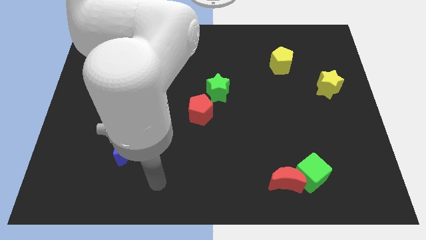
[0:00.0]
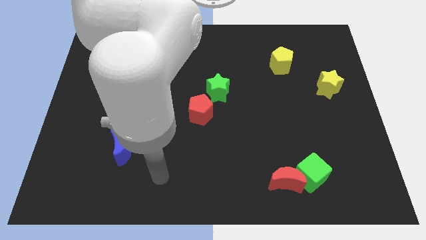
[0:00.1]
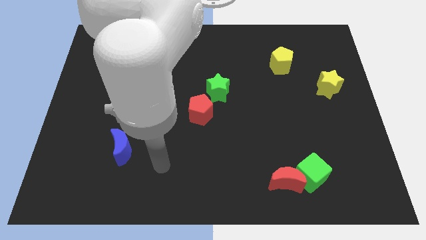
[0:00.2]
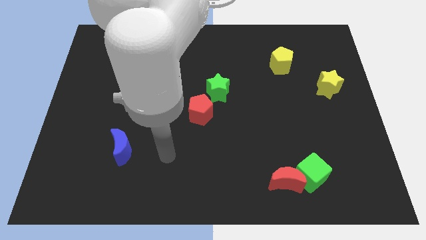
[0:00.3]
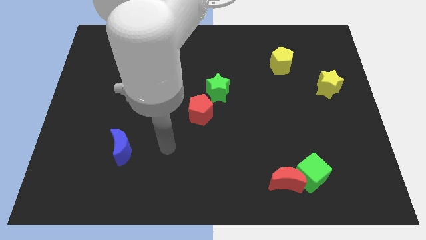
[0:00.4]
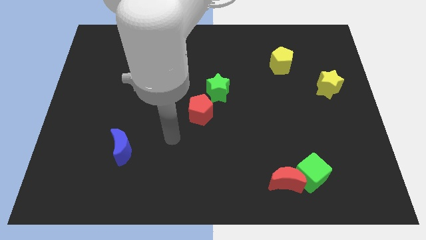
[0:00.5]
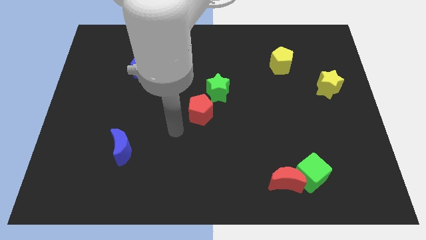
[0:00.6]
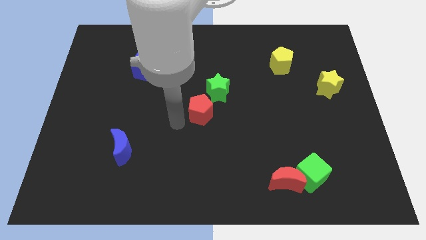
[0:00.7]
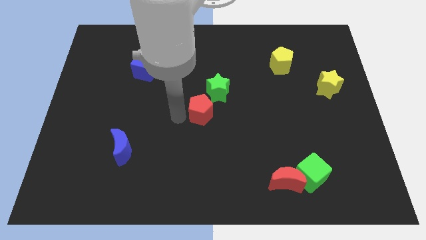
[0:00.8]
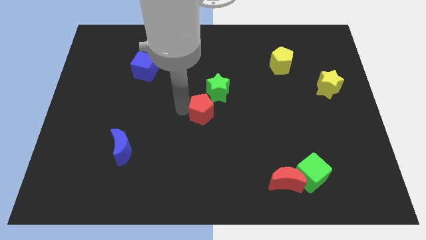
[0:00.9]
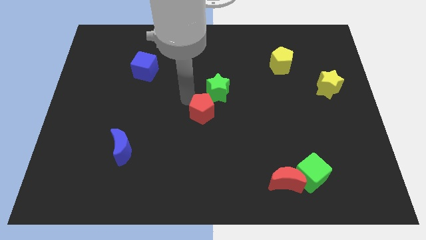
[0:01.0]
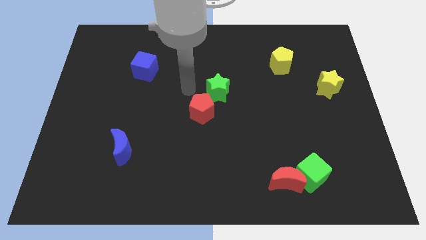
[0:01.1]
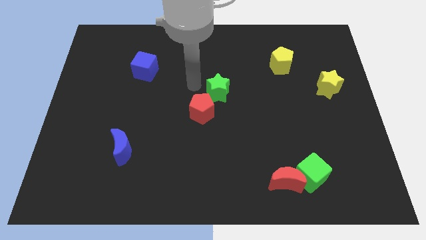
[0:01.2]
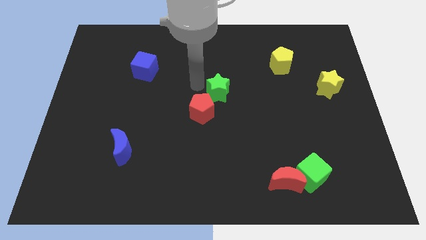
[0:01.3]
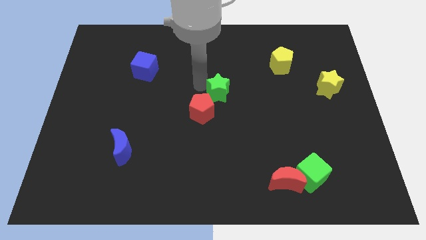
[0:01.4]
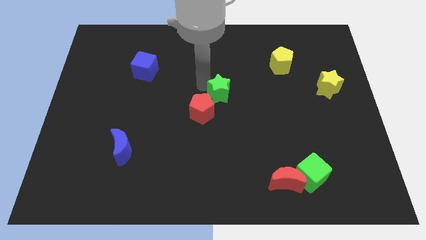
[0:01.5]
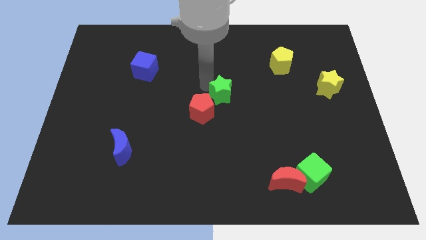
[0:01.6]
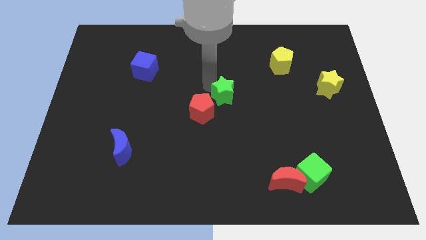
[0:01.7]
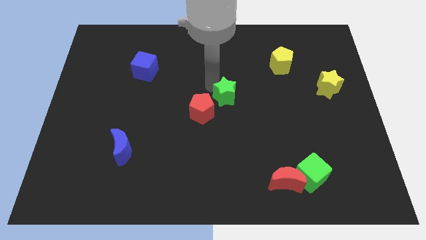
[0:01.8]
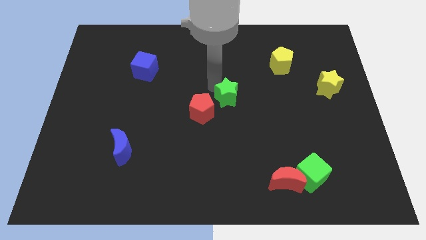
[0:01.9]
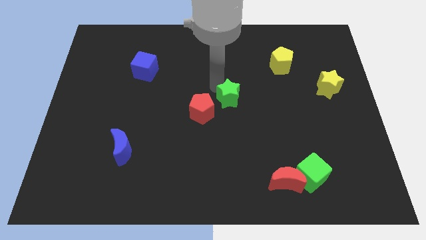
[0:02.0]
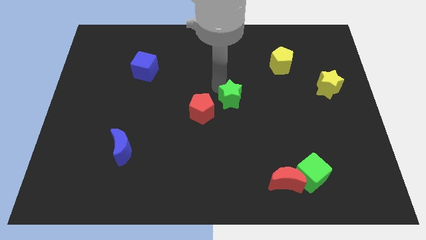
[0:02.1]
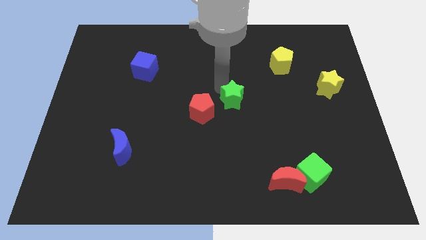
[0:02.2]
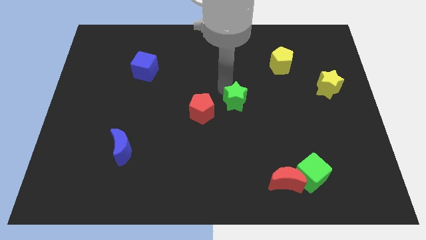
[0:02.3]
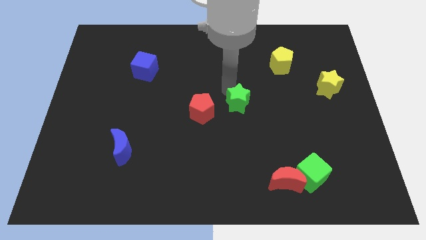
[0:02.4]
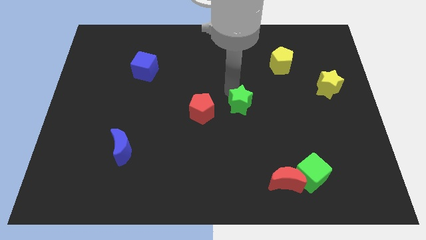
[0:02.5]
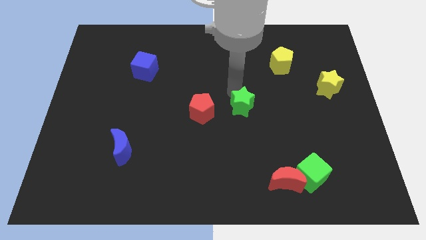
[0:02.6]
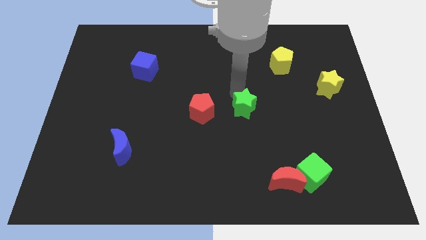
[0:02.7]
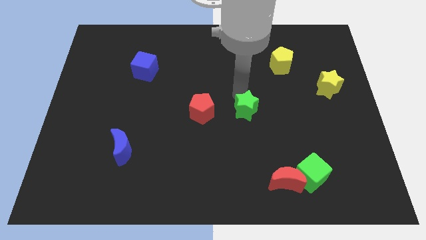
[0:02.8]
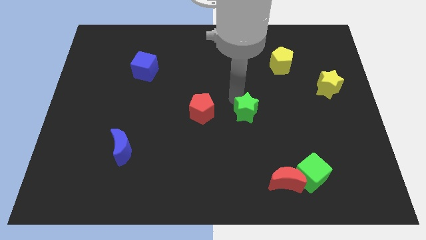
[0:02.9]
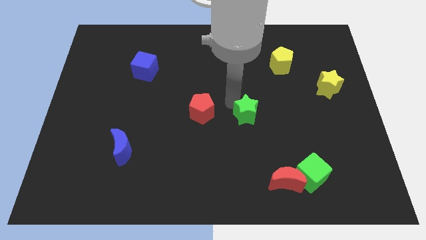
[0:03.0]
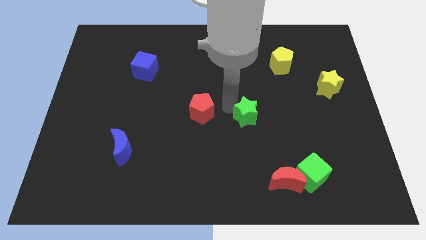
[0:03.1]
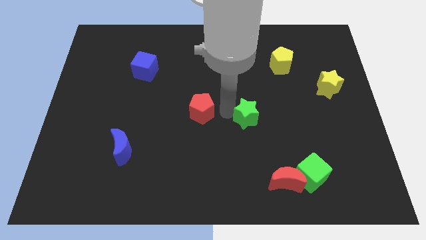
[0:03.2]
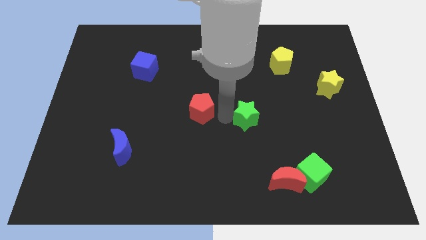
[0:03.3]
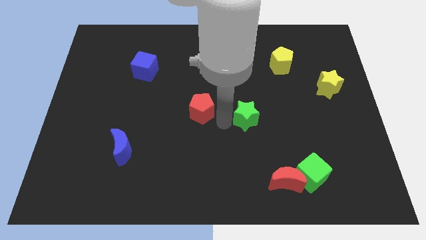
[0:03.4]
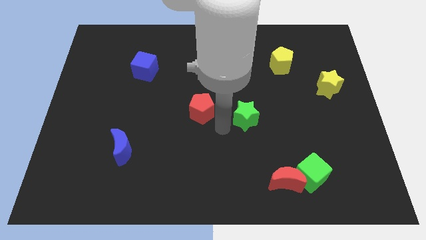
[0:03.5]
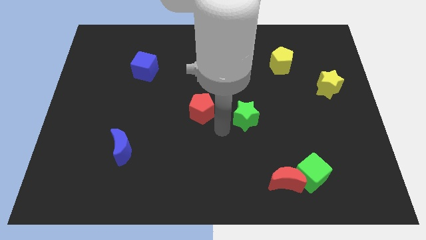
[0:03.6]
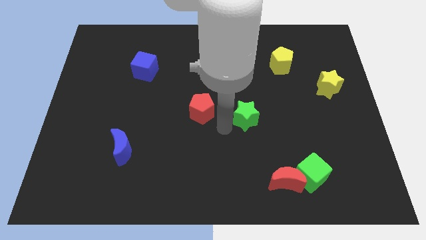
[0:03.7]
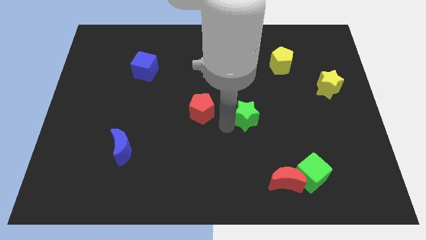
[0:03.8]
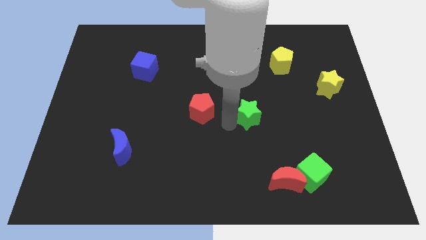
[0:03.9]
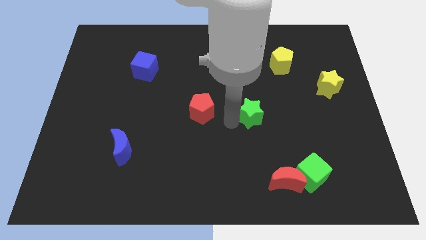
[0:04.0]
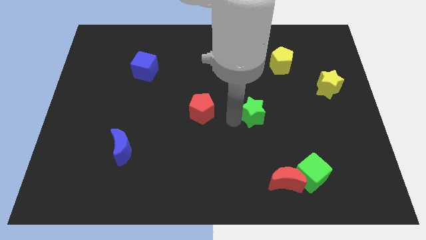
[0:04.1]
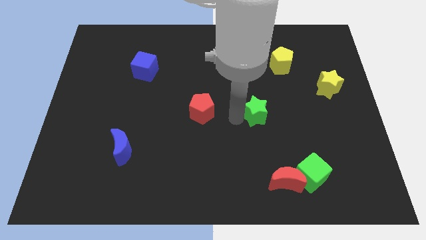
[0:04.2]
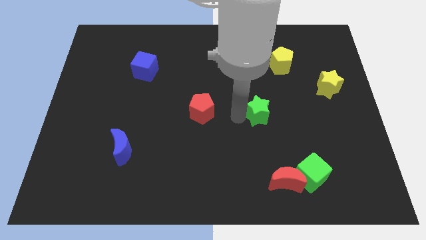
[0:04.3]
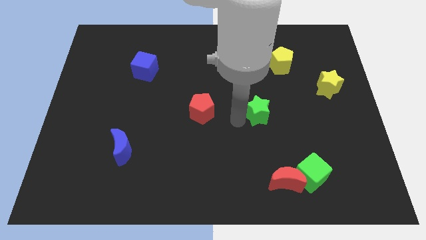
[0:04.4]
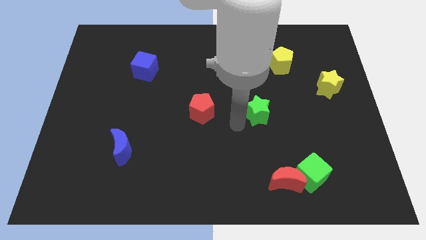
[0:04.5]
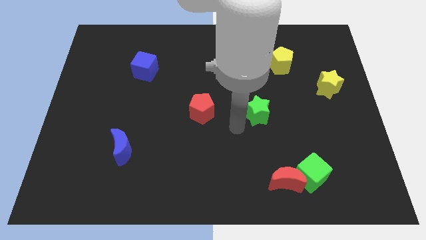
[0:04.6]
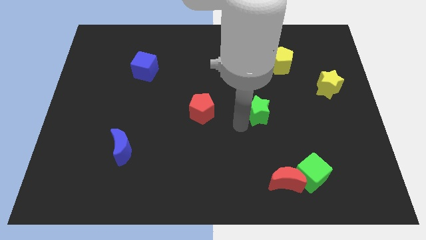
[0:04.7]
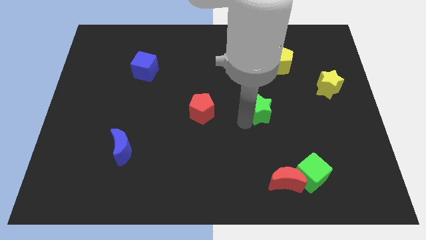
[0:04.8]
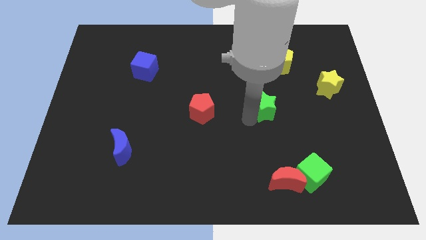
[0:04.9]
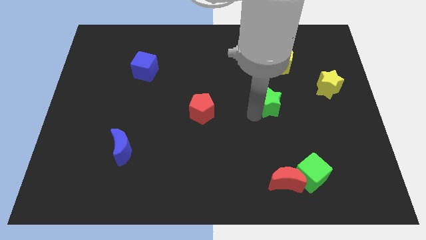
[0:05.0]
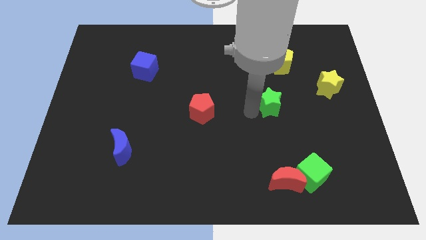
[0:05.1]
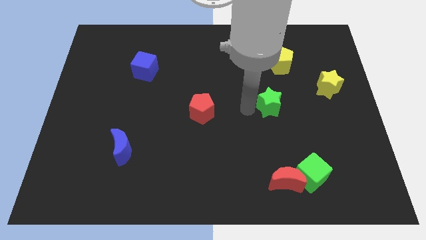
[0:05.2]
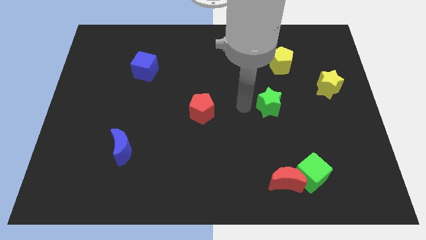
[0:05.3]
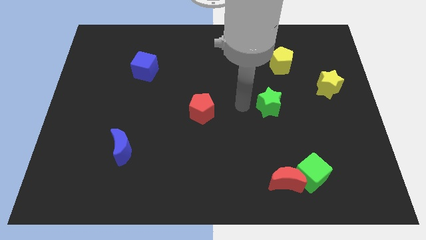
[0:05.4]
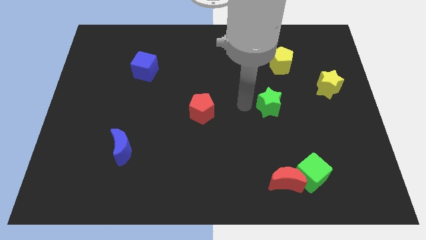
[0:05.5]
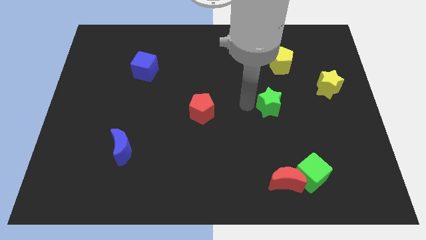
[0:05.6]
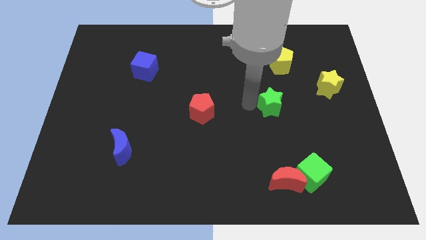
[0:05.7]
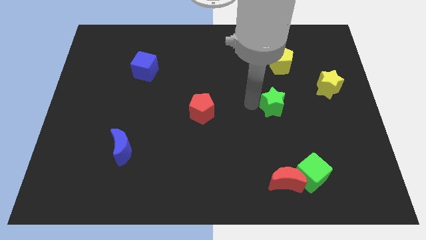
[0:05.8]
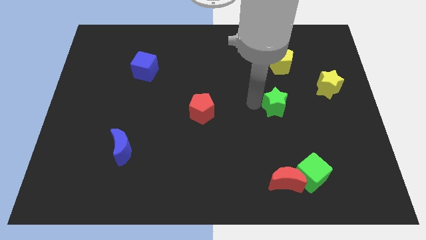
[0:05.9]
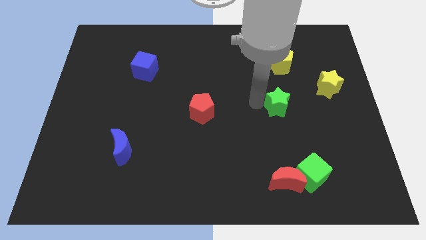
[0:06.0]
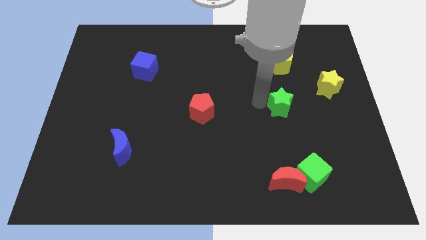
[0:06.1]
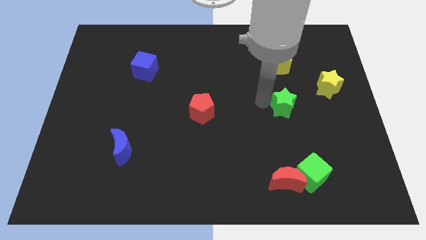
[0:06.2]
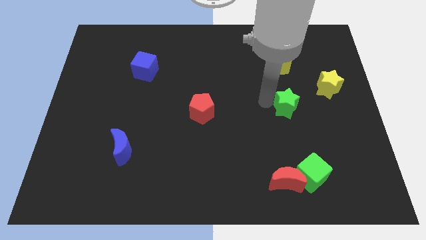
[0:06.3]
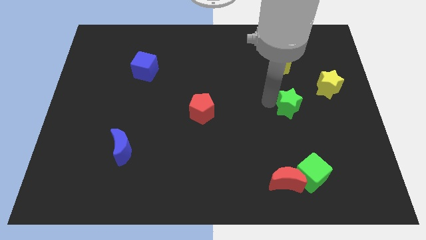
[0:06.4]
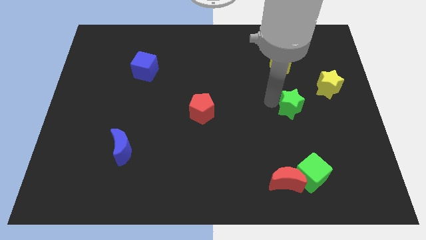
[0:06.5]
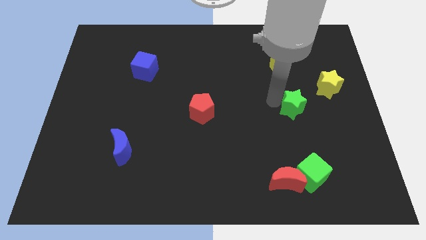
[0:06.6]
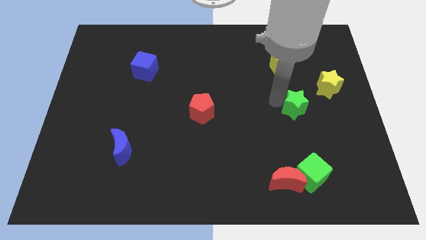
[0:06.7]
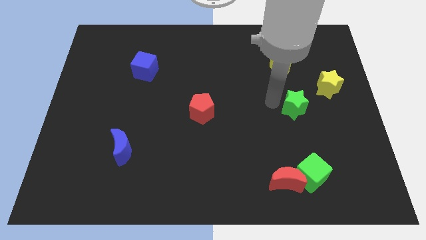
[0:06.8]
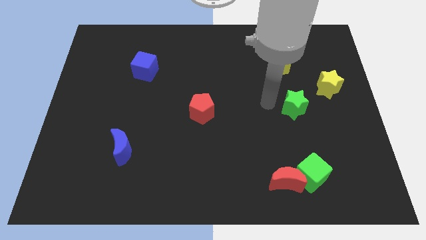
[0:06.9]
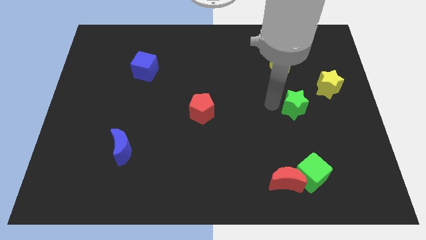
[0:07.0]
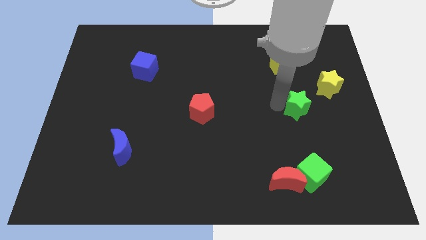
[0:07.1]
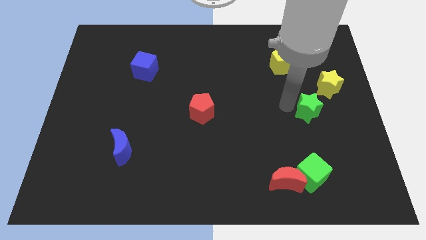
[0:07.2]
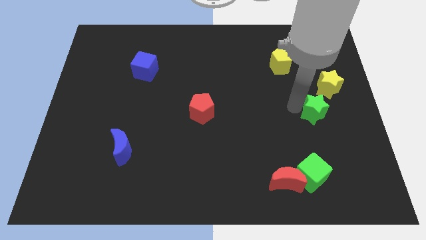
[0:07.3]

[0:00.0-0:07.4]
slide the green star below the yellow star
